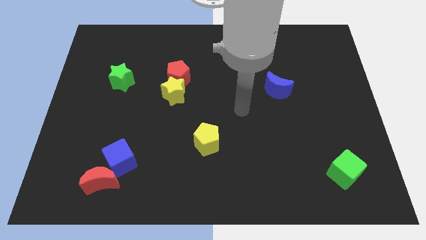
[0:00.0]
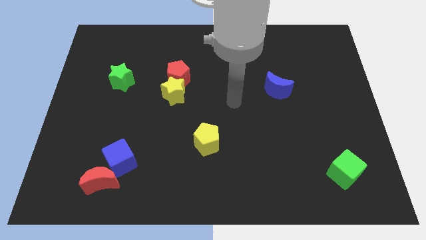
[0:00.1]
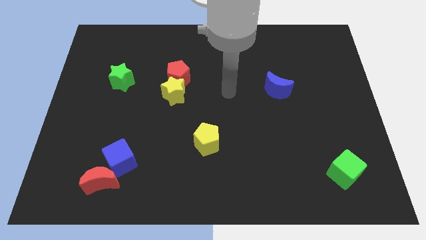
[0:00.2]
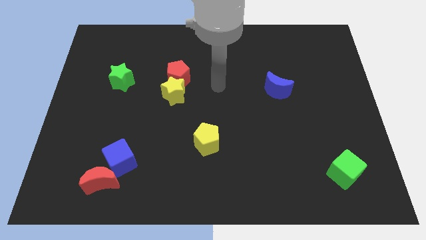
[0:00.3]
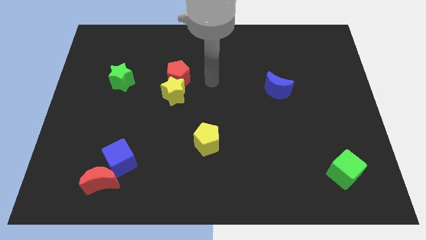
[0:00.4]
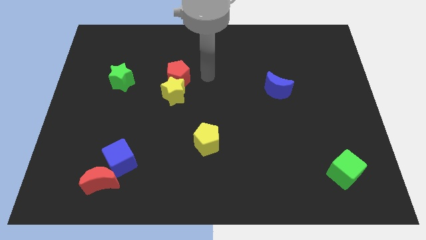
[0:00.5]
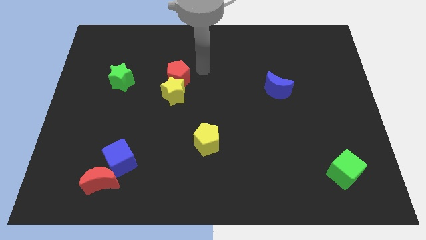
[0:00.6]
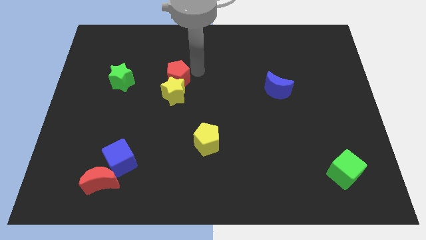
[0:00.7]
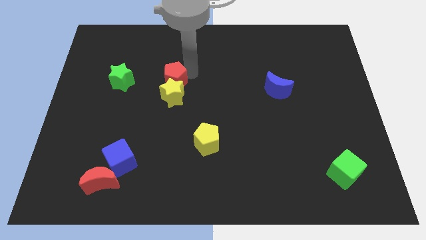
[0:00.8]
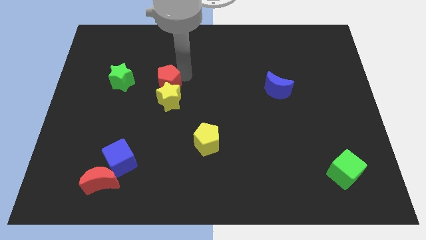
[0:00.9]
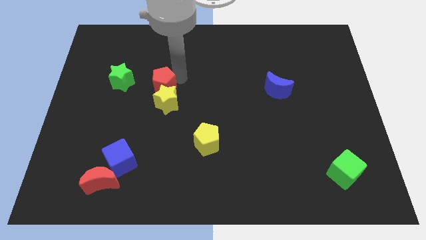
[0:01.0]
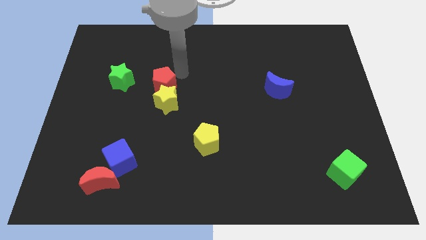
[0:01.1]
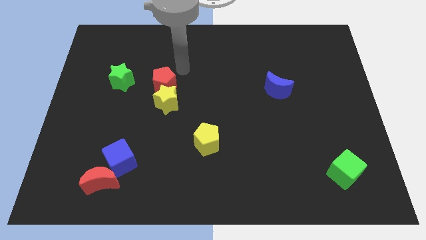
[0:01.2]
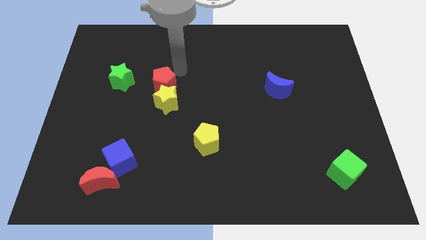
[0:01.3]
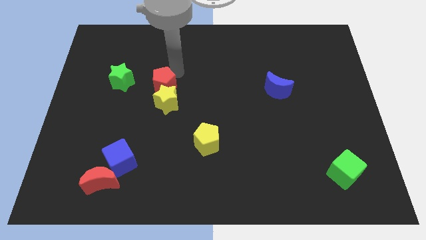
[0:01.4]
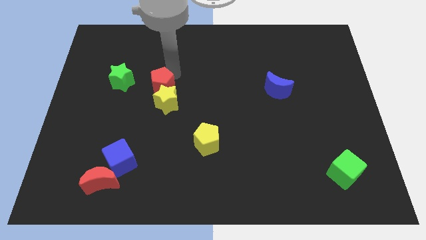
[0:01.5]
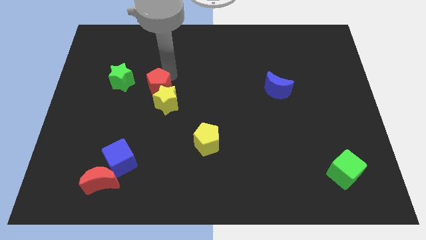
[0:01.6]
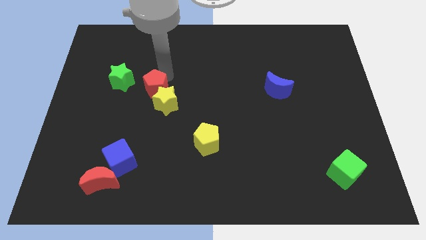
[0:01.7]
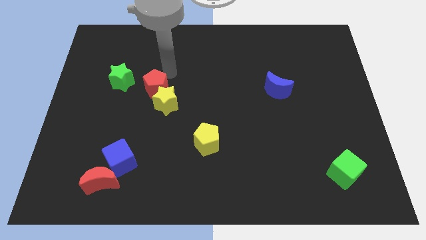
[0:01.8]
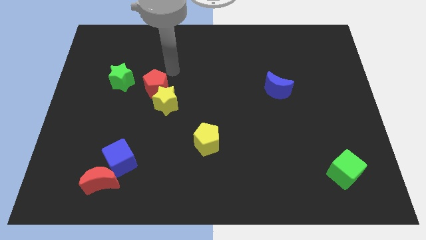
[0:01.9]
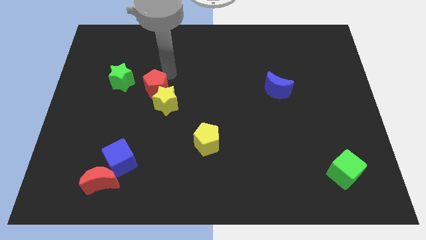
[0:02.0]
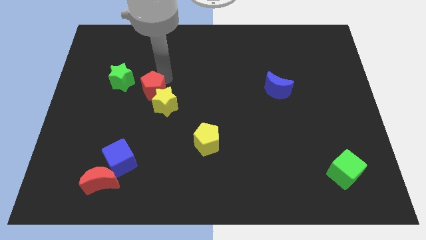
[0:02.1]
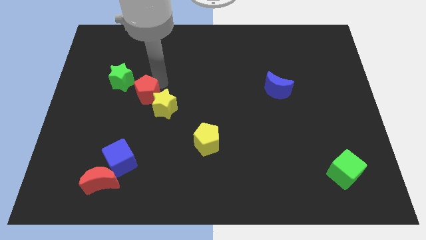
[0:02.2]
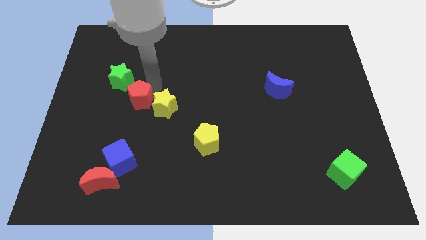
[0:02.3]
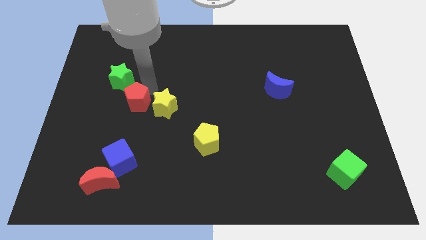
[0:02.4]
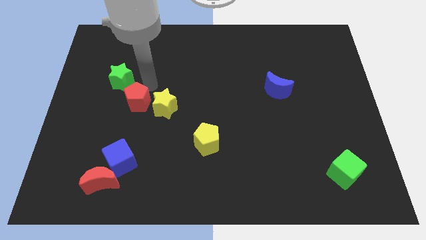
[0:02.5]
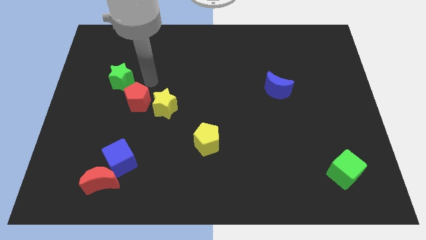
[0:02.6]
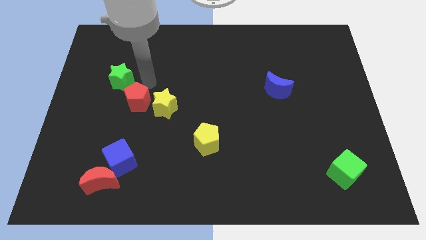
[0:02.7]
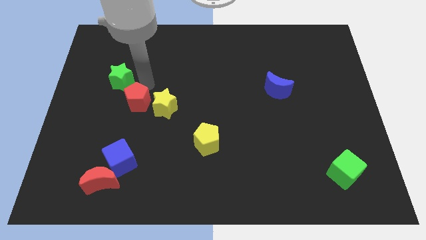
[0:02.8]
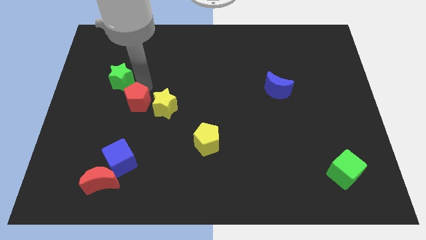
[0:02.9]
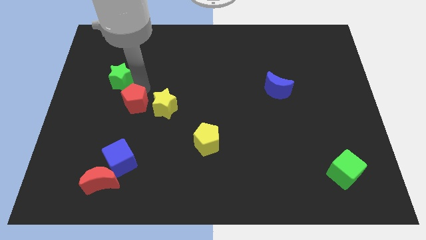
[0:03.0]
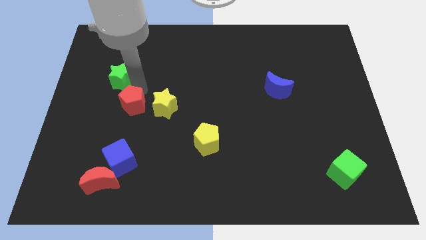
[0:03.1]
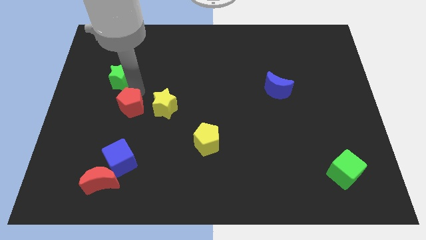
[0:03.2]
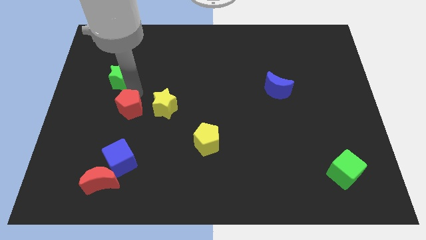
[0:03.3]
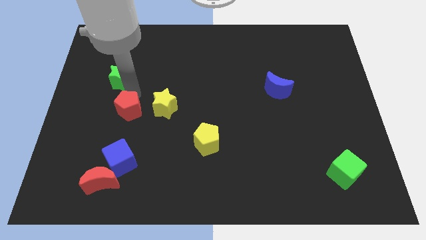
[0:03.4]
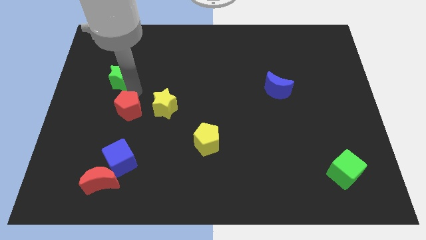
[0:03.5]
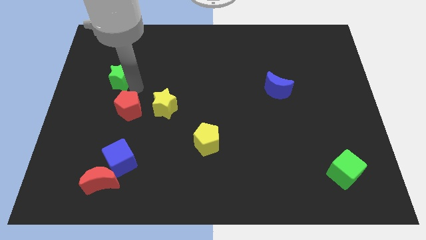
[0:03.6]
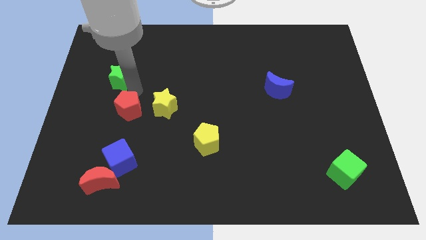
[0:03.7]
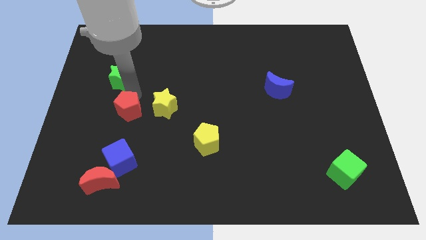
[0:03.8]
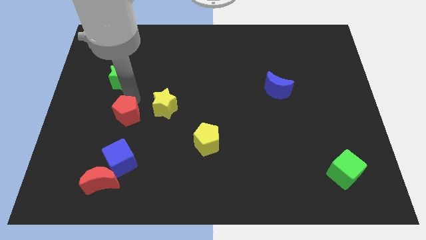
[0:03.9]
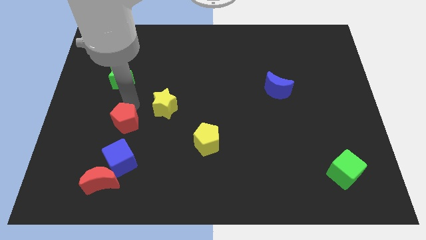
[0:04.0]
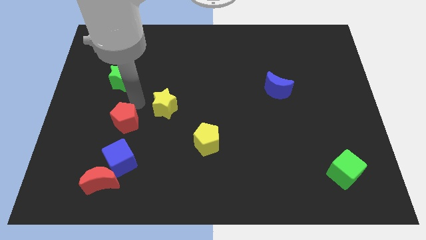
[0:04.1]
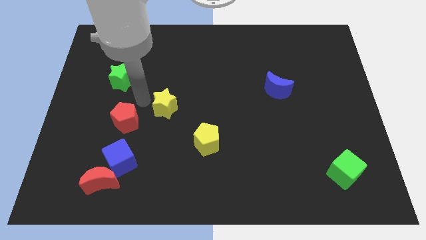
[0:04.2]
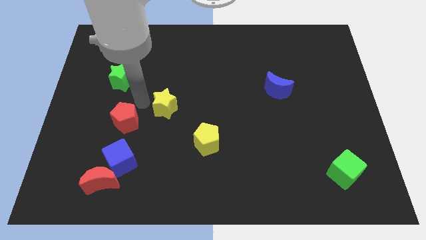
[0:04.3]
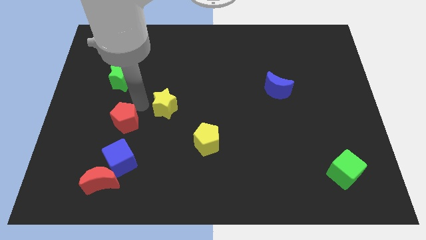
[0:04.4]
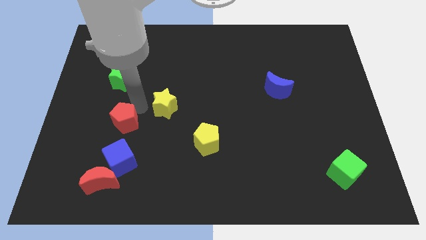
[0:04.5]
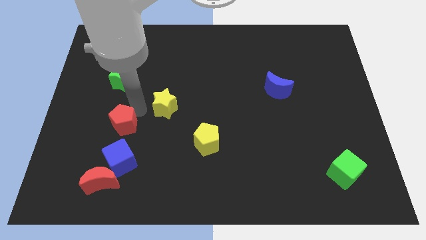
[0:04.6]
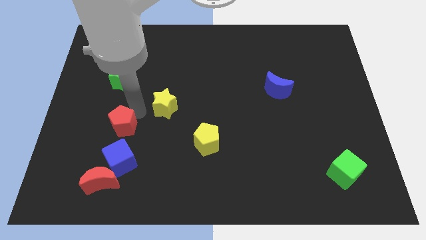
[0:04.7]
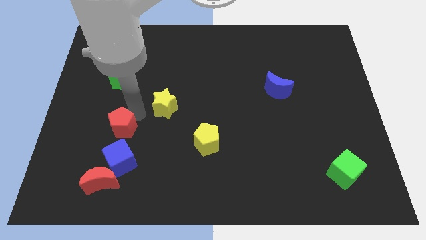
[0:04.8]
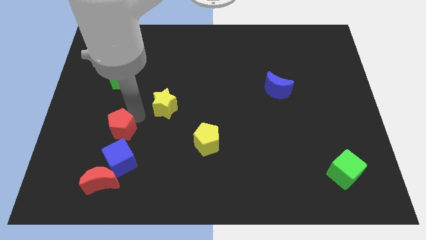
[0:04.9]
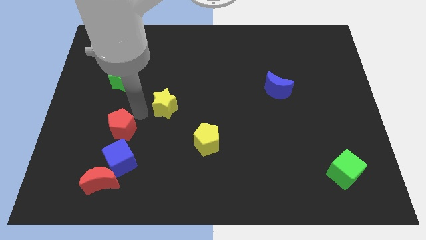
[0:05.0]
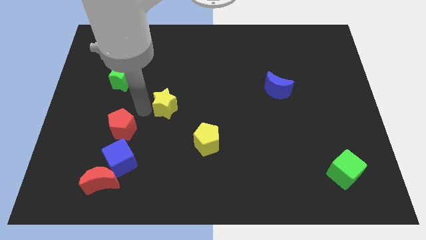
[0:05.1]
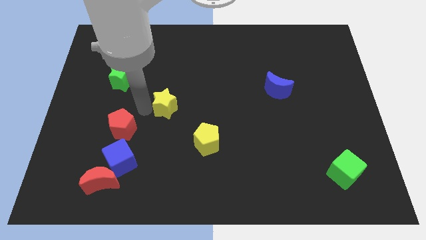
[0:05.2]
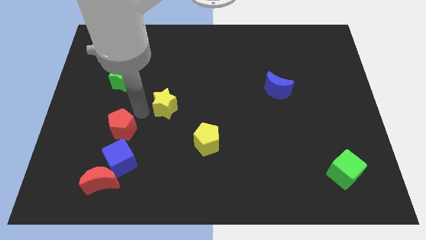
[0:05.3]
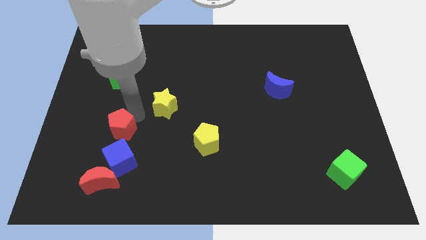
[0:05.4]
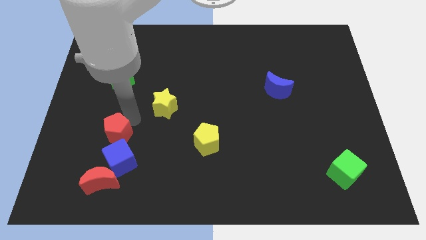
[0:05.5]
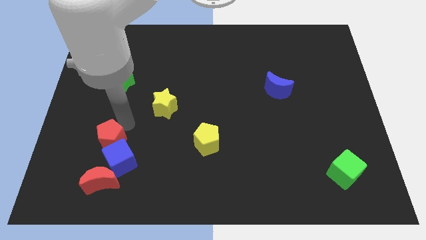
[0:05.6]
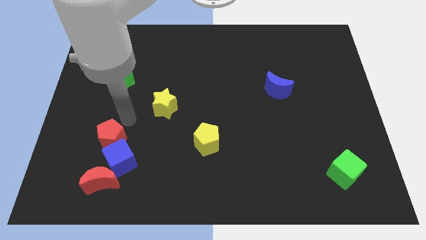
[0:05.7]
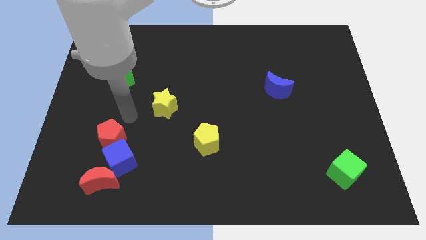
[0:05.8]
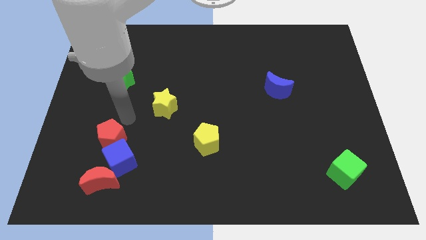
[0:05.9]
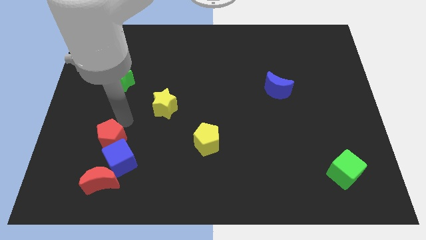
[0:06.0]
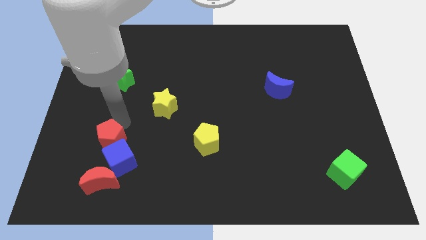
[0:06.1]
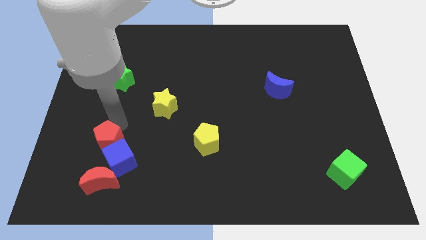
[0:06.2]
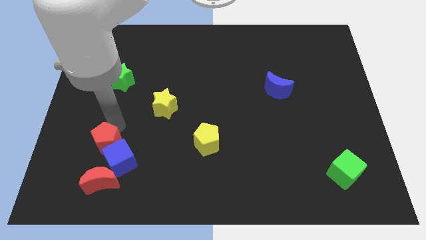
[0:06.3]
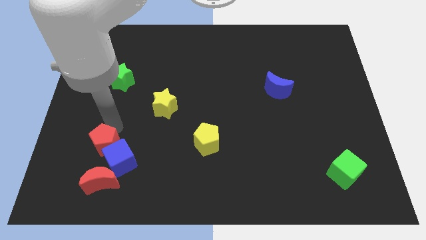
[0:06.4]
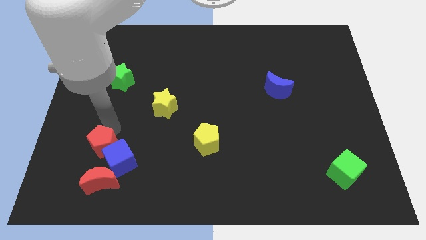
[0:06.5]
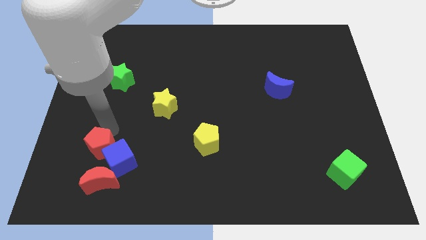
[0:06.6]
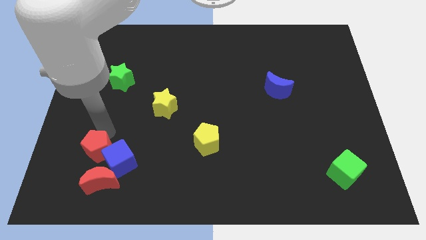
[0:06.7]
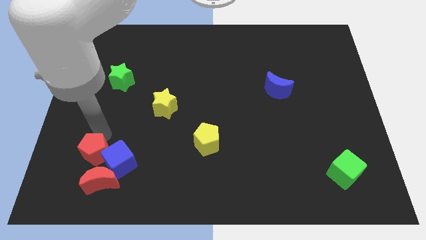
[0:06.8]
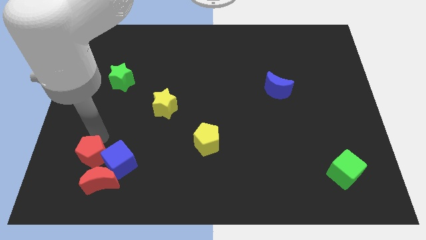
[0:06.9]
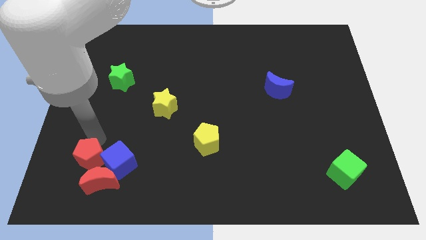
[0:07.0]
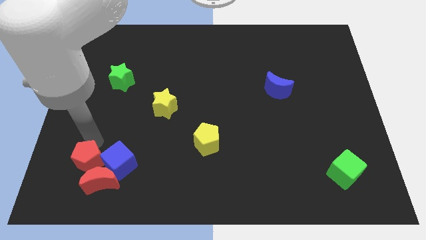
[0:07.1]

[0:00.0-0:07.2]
slide the red pentagon close to the red moon

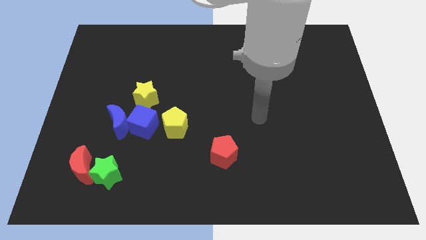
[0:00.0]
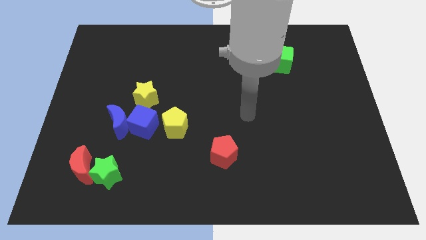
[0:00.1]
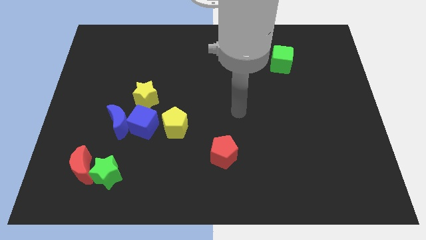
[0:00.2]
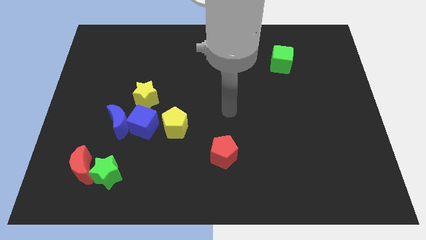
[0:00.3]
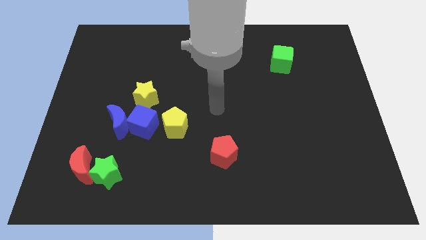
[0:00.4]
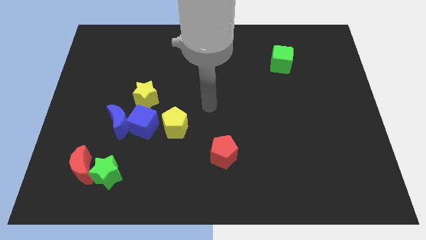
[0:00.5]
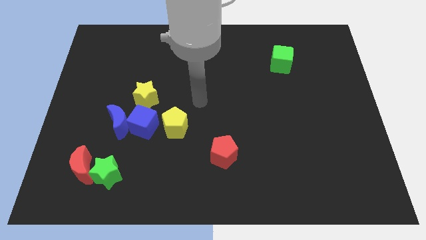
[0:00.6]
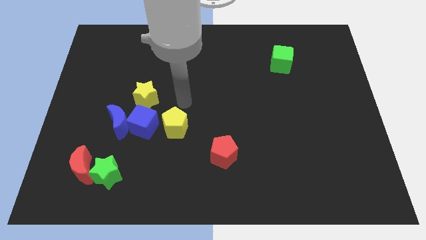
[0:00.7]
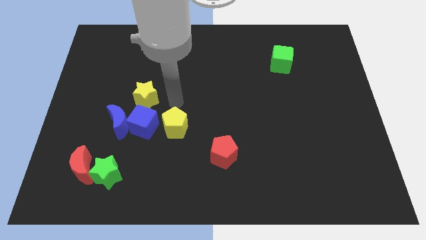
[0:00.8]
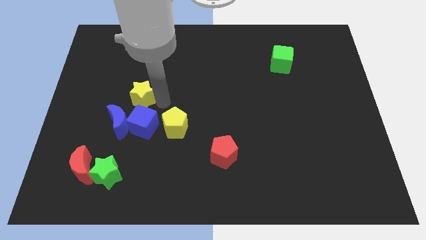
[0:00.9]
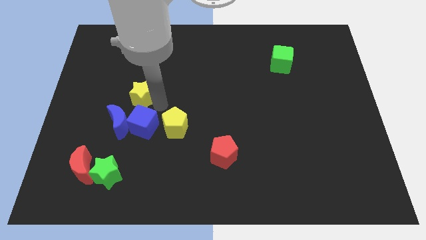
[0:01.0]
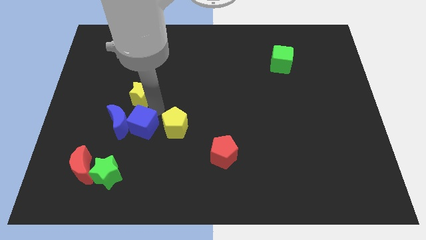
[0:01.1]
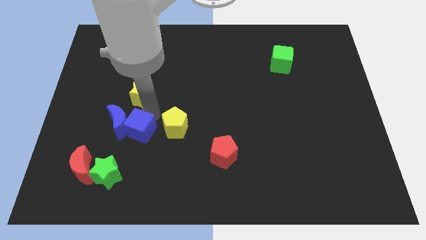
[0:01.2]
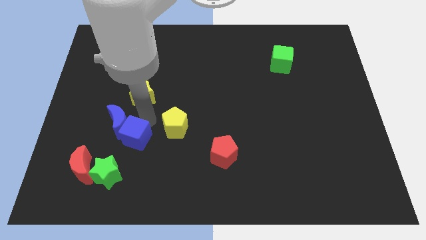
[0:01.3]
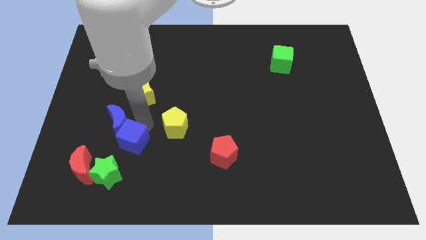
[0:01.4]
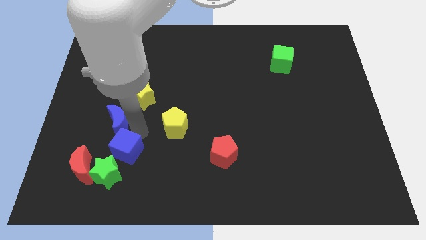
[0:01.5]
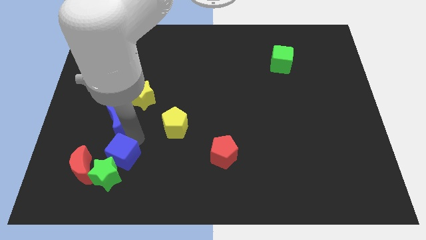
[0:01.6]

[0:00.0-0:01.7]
put the blue cube towards the green star
